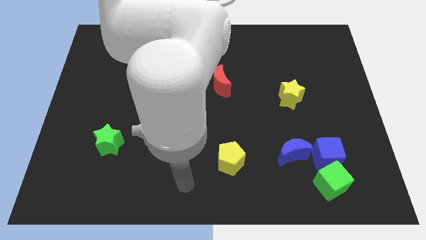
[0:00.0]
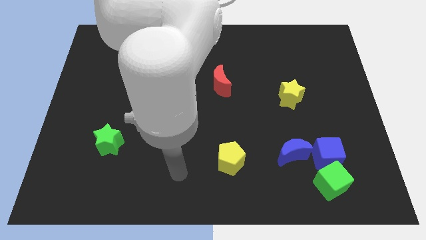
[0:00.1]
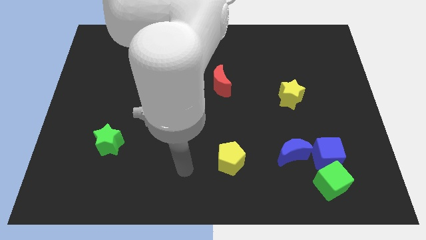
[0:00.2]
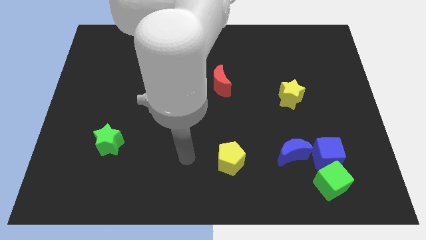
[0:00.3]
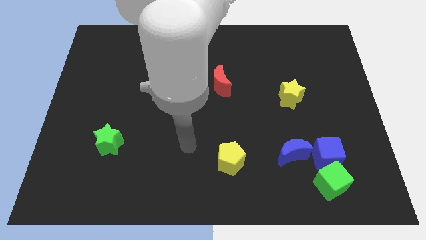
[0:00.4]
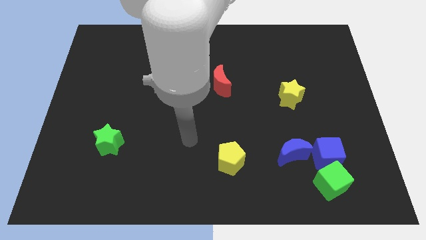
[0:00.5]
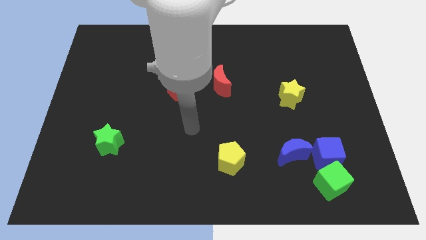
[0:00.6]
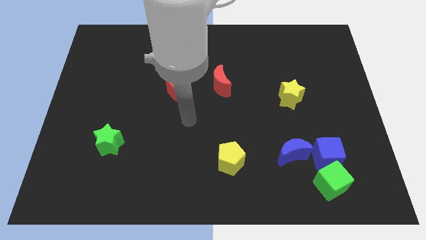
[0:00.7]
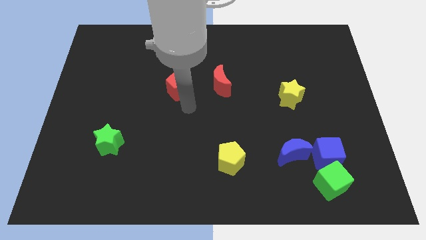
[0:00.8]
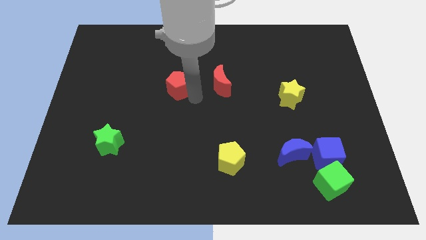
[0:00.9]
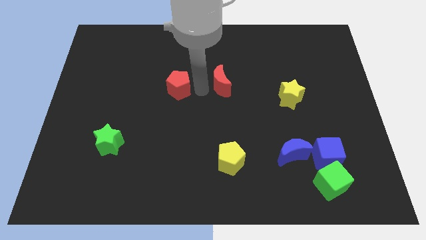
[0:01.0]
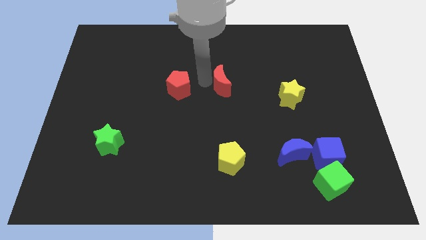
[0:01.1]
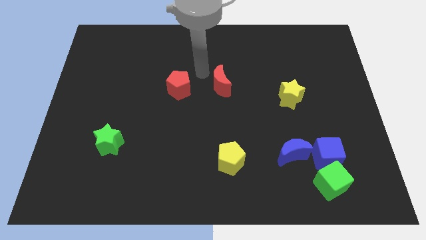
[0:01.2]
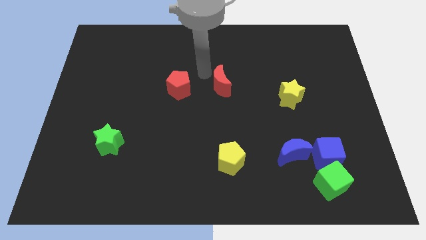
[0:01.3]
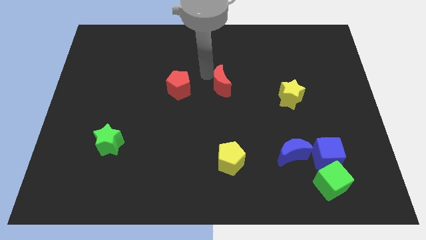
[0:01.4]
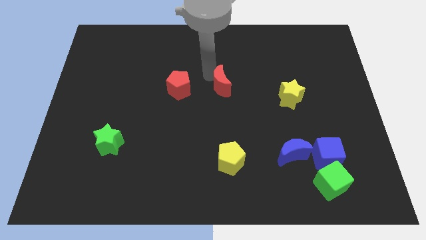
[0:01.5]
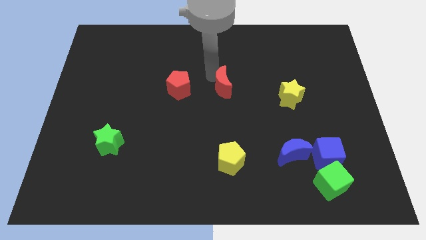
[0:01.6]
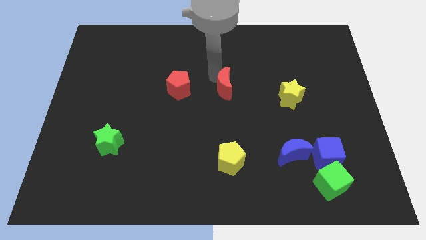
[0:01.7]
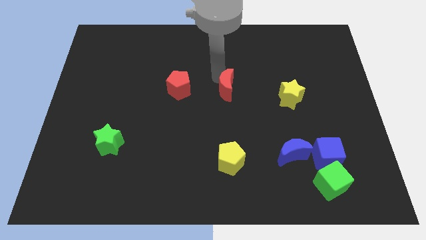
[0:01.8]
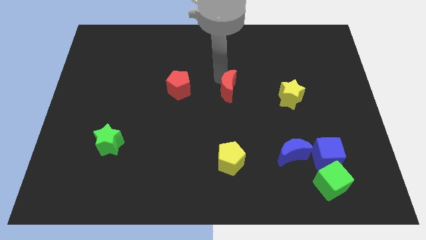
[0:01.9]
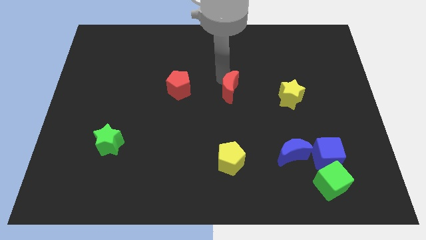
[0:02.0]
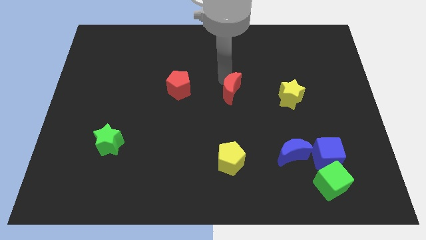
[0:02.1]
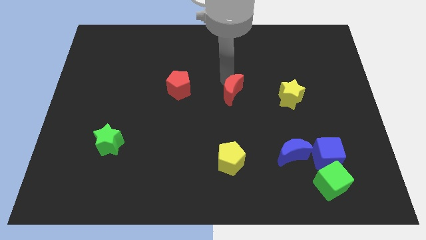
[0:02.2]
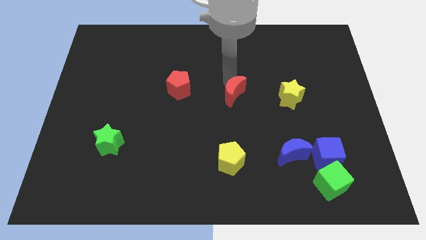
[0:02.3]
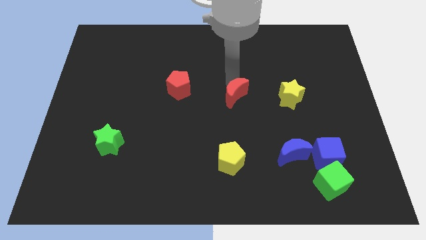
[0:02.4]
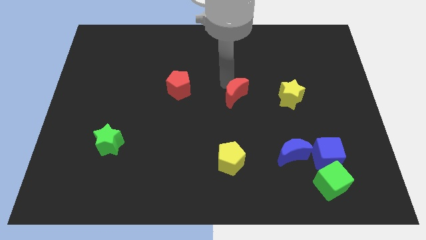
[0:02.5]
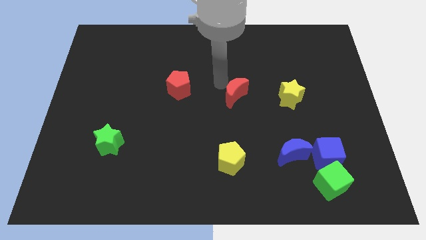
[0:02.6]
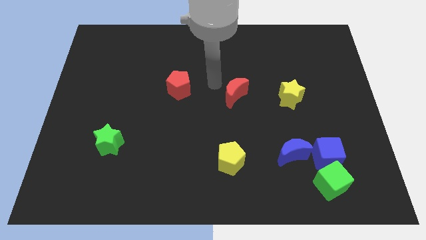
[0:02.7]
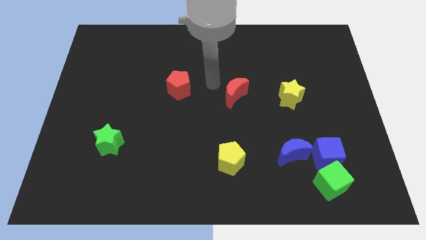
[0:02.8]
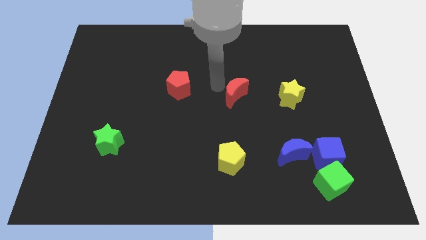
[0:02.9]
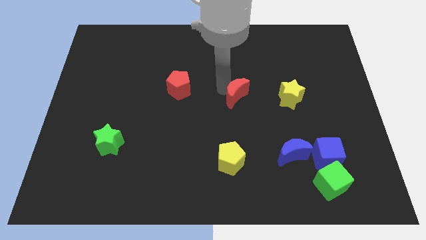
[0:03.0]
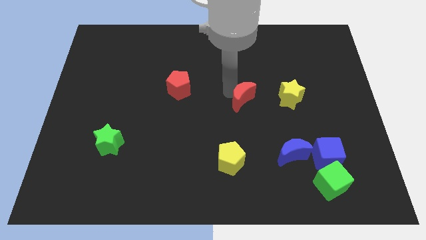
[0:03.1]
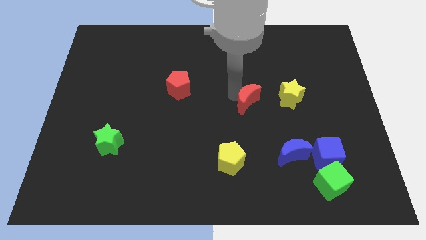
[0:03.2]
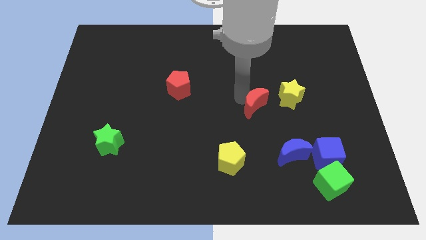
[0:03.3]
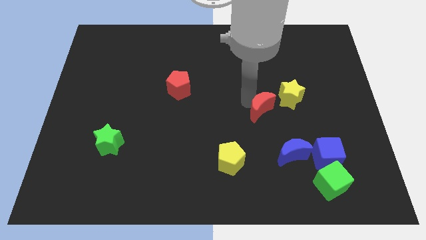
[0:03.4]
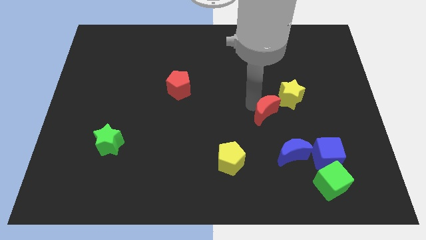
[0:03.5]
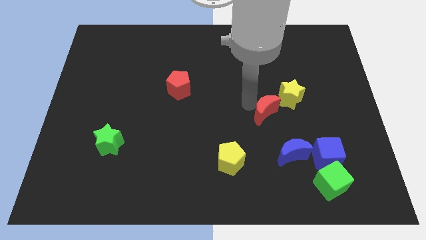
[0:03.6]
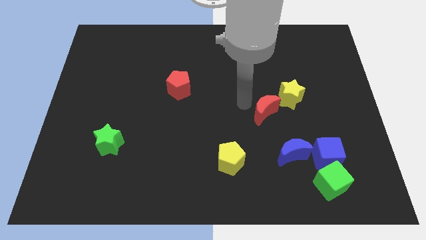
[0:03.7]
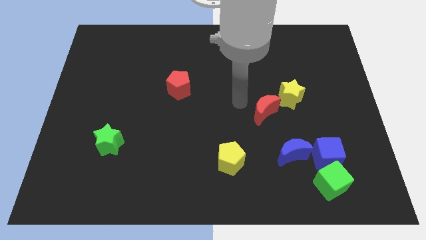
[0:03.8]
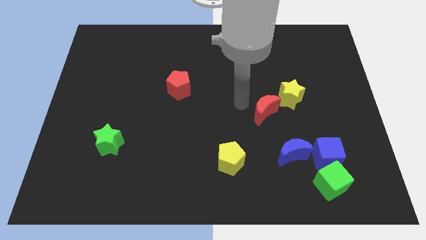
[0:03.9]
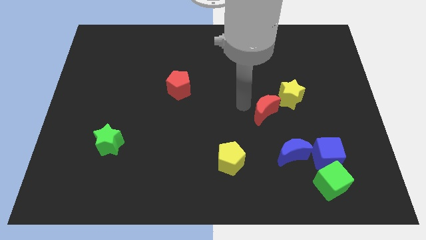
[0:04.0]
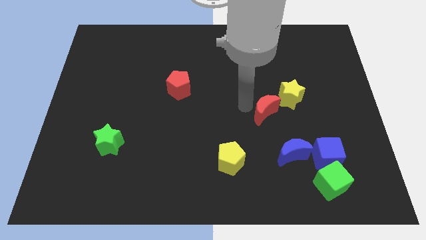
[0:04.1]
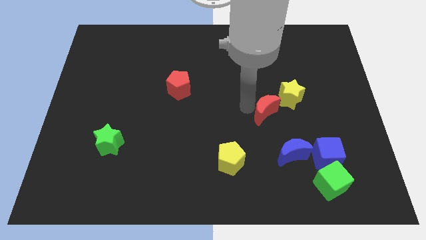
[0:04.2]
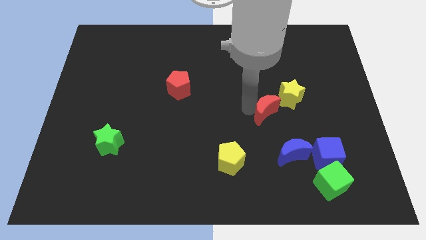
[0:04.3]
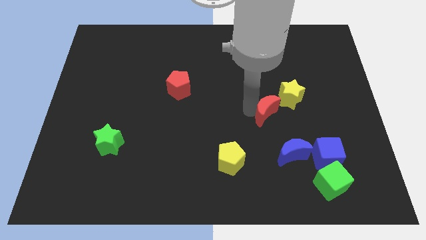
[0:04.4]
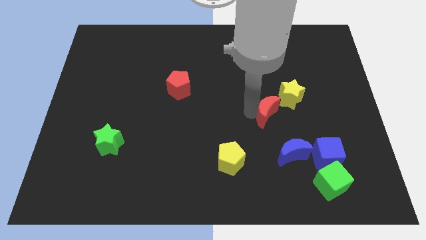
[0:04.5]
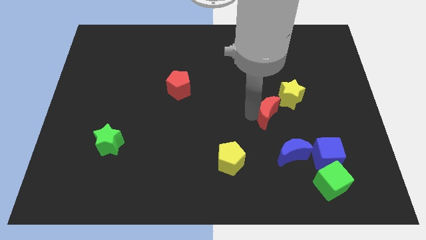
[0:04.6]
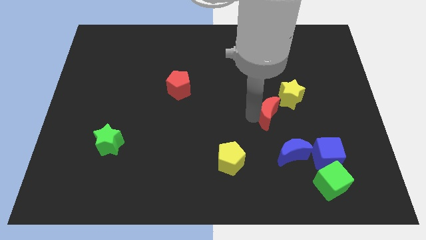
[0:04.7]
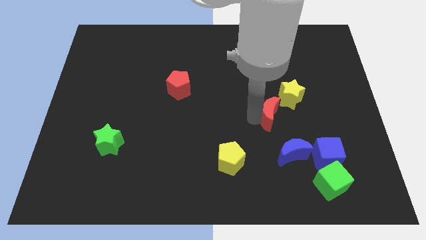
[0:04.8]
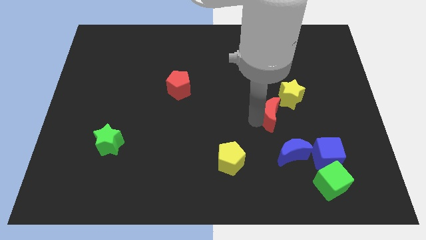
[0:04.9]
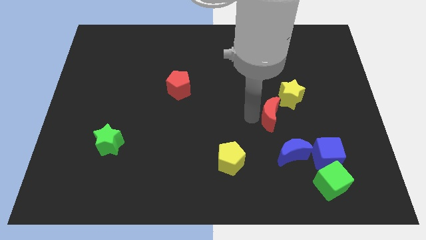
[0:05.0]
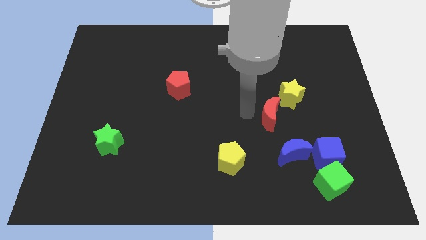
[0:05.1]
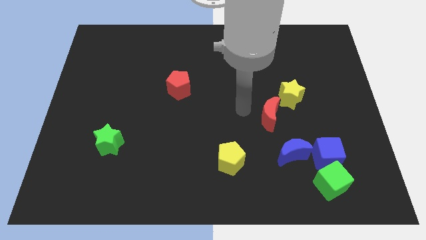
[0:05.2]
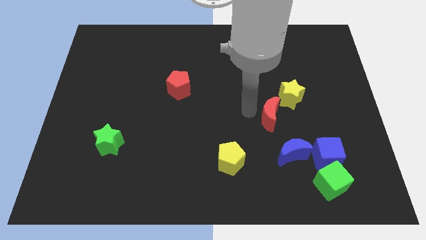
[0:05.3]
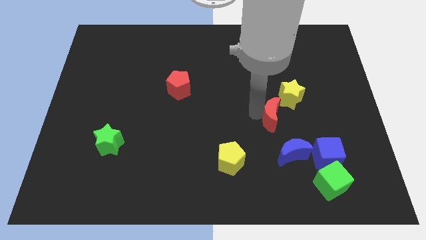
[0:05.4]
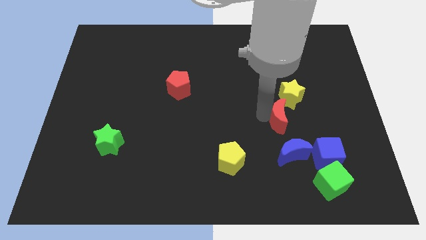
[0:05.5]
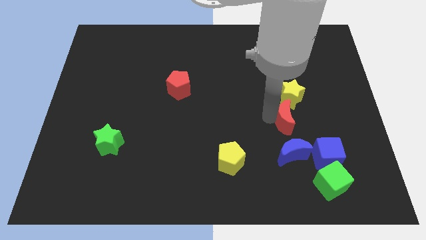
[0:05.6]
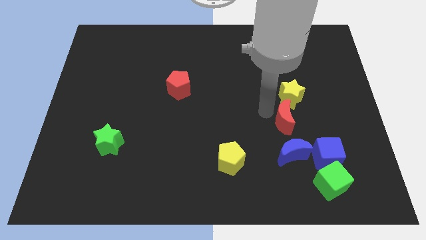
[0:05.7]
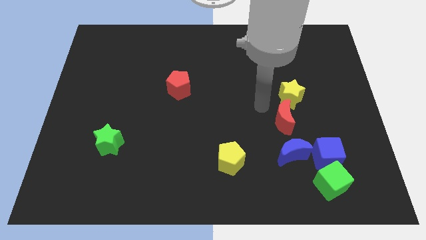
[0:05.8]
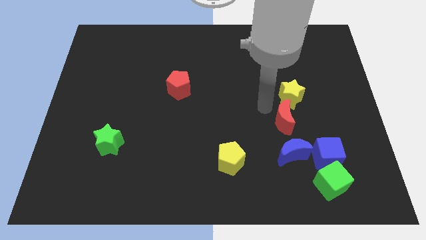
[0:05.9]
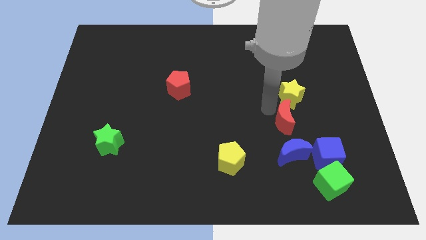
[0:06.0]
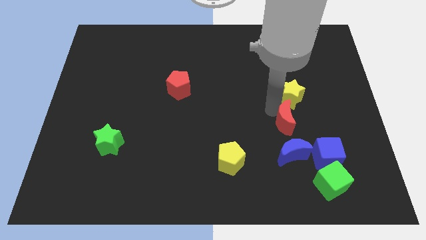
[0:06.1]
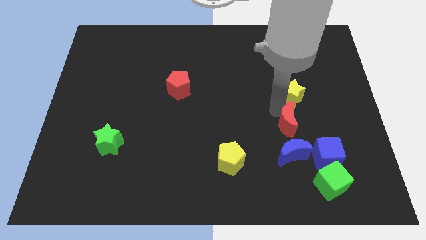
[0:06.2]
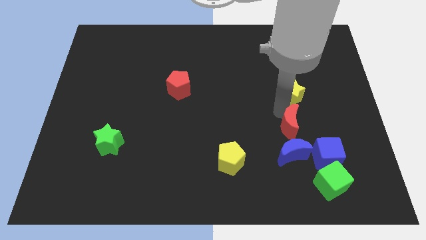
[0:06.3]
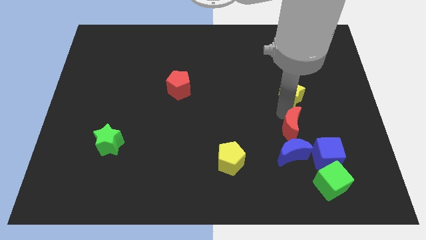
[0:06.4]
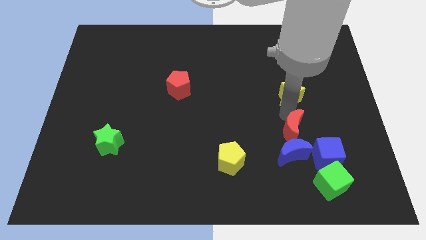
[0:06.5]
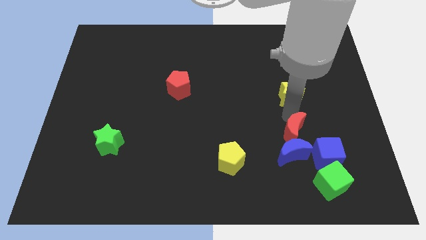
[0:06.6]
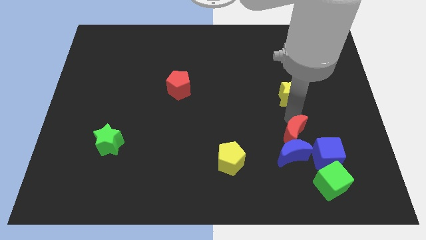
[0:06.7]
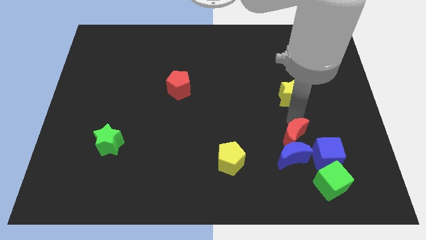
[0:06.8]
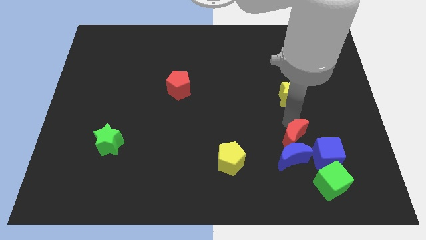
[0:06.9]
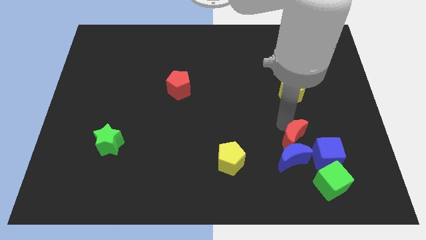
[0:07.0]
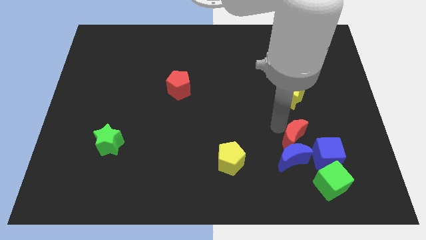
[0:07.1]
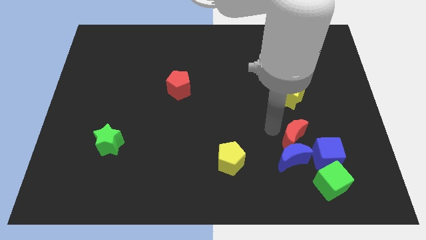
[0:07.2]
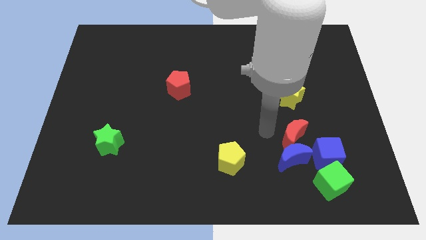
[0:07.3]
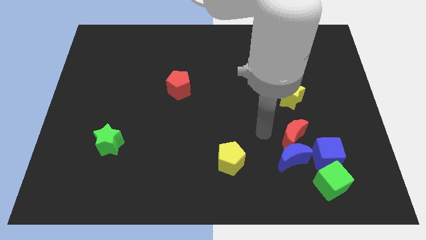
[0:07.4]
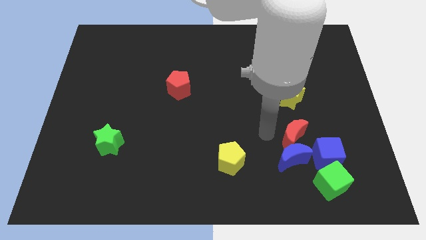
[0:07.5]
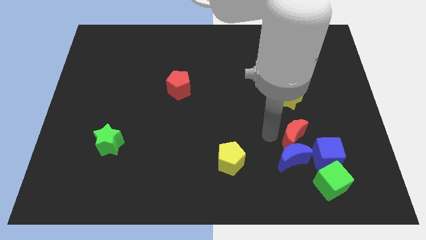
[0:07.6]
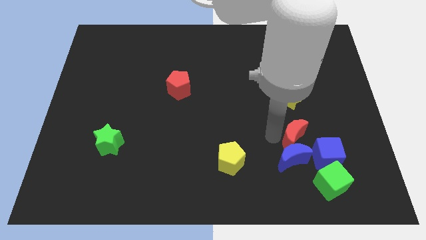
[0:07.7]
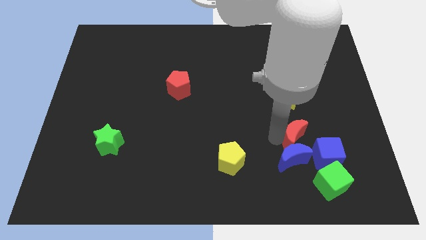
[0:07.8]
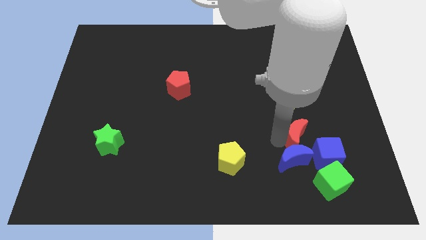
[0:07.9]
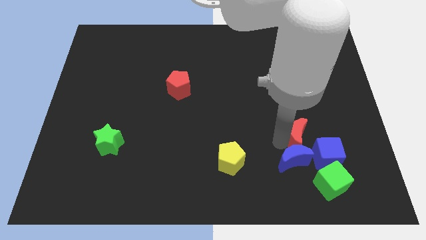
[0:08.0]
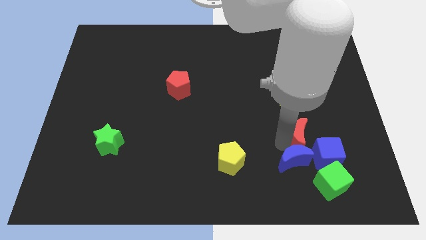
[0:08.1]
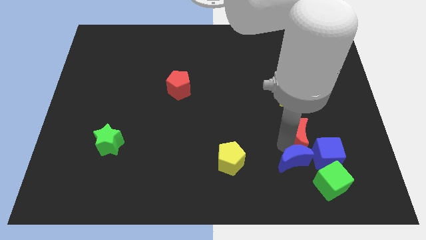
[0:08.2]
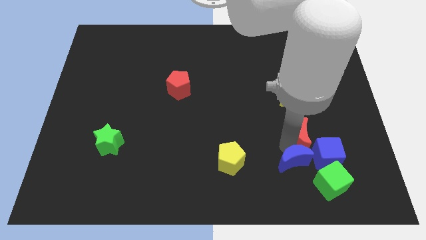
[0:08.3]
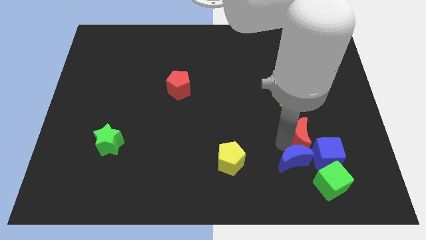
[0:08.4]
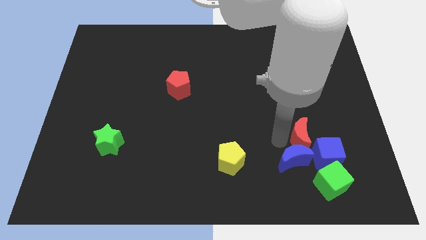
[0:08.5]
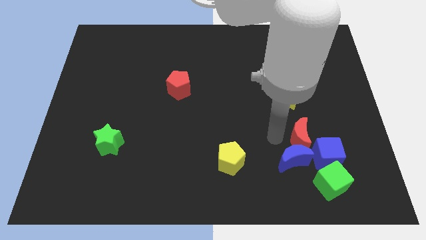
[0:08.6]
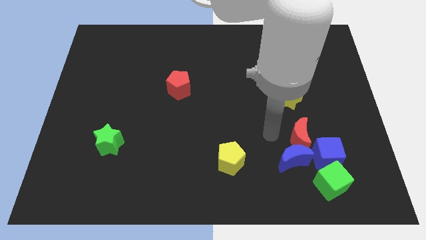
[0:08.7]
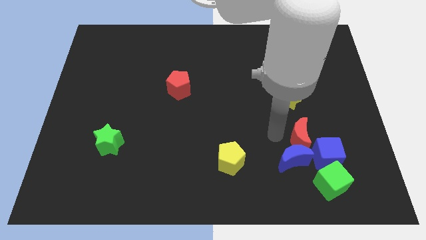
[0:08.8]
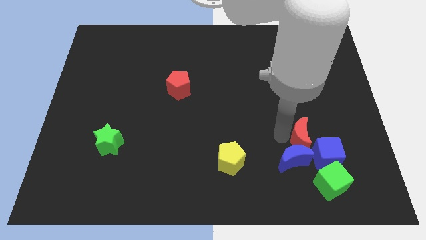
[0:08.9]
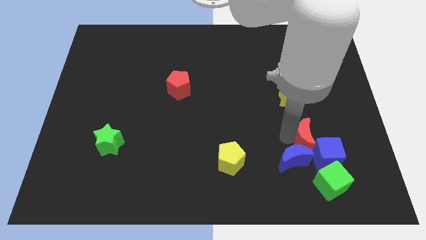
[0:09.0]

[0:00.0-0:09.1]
put the red moon towards the blue cube
